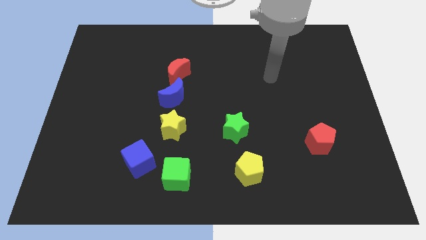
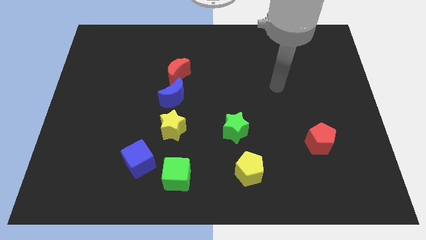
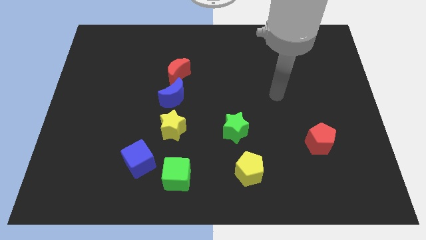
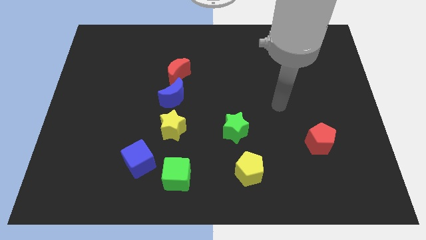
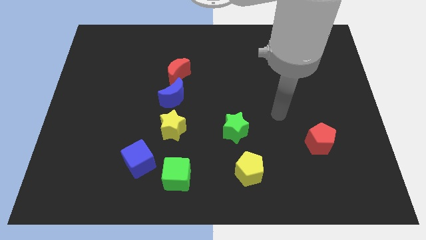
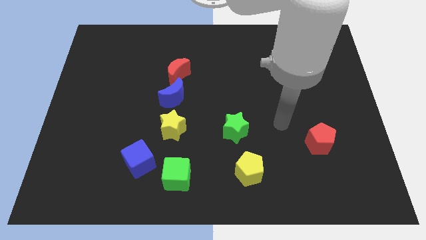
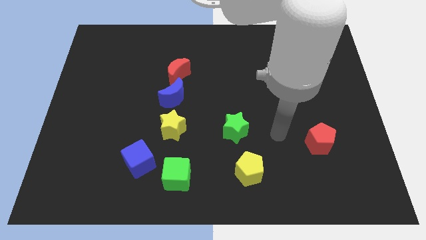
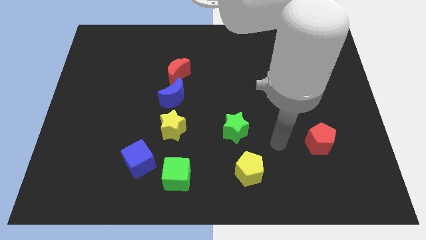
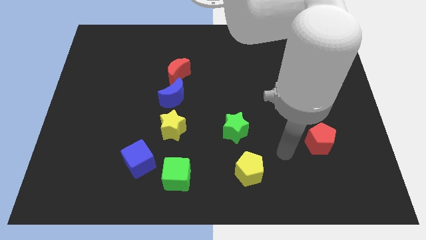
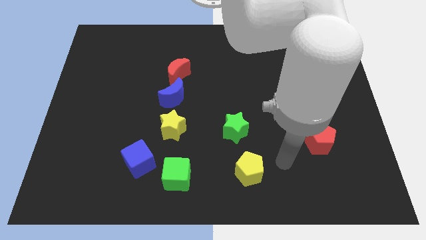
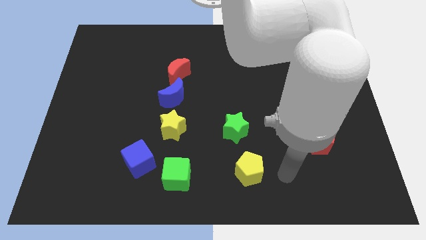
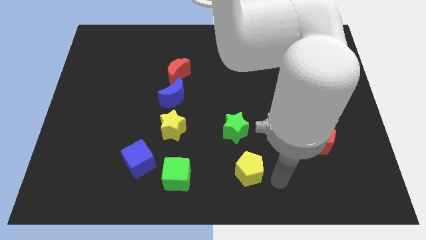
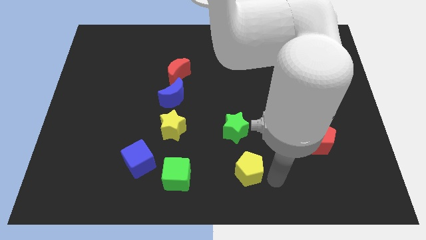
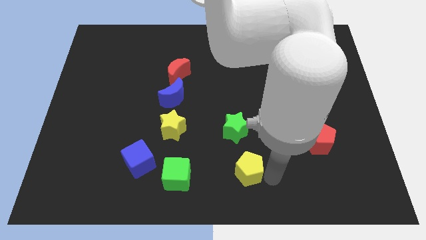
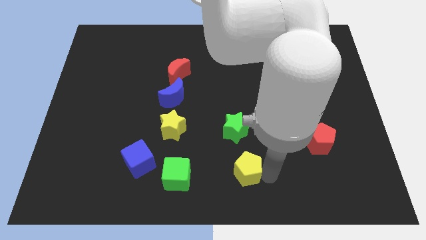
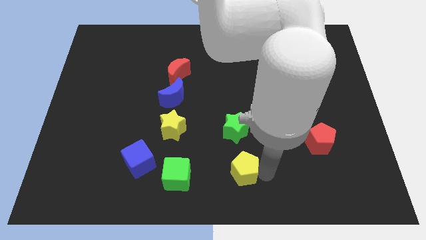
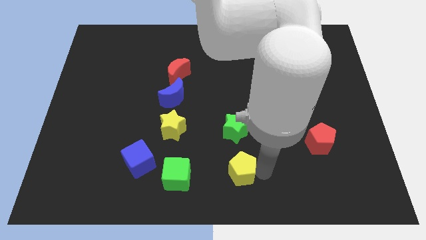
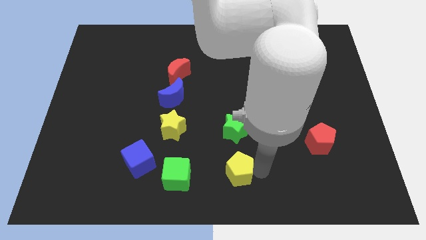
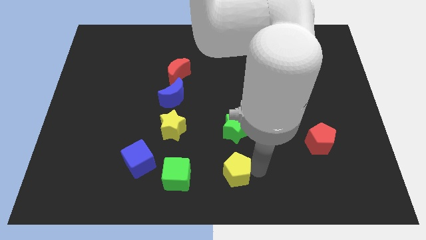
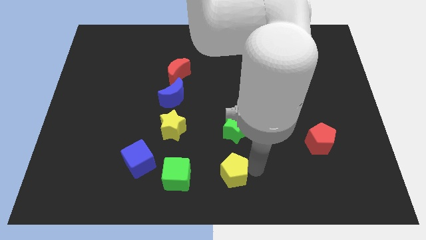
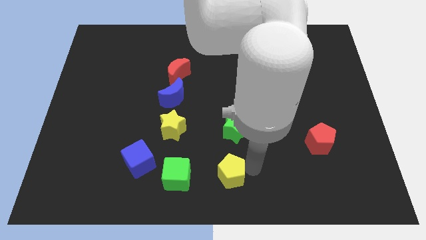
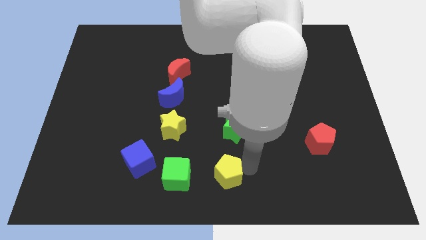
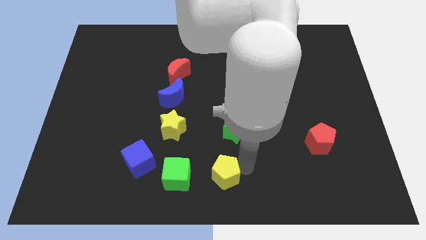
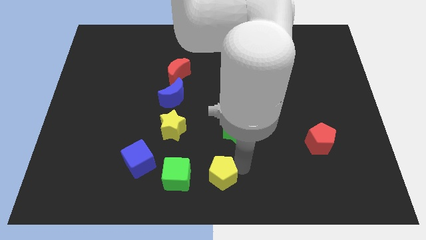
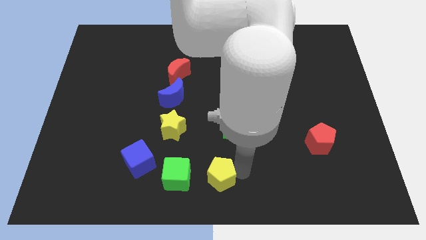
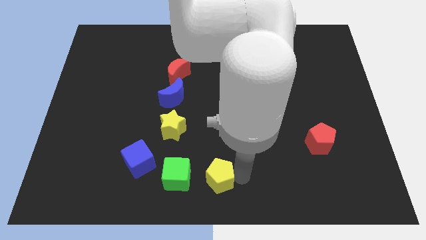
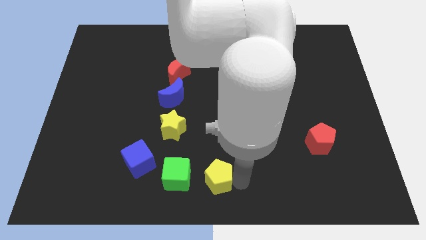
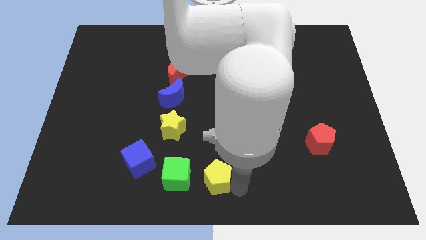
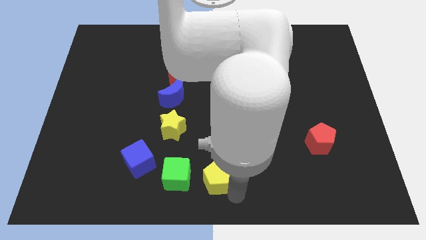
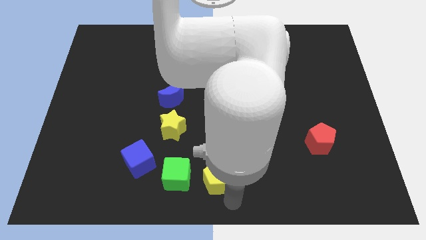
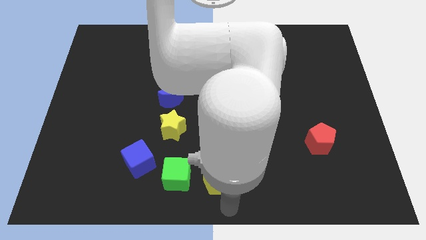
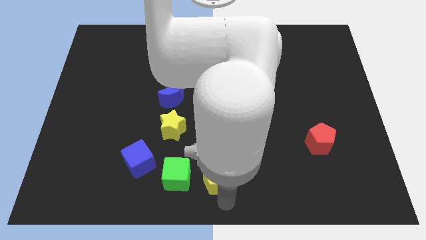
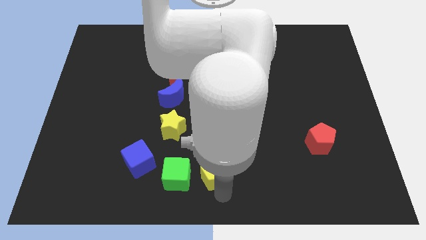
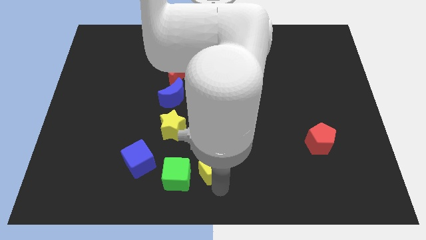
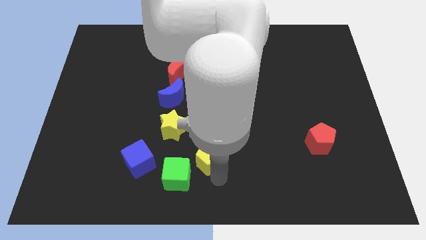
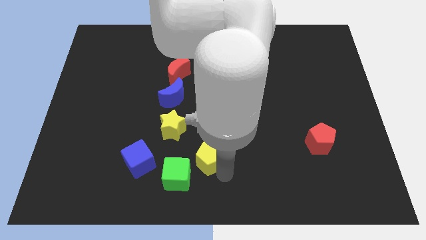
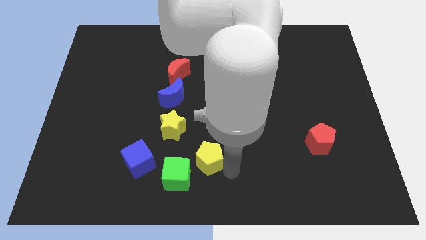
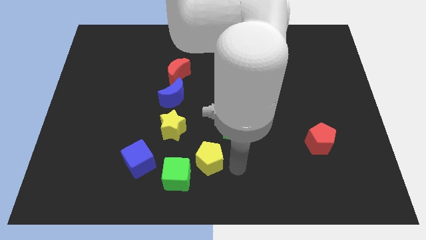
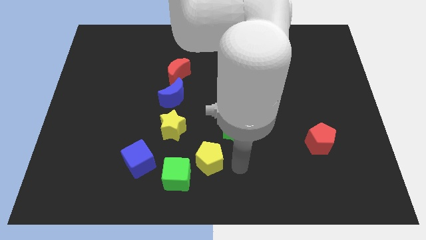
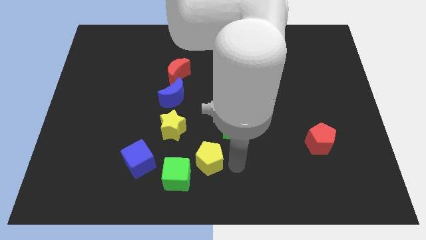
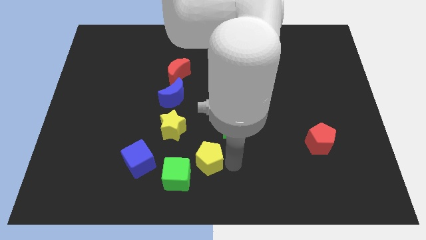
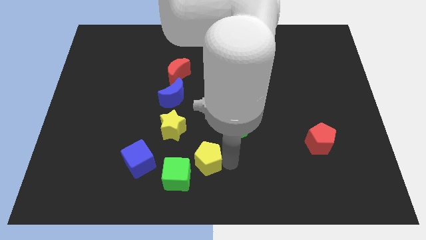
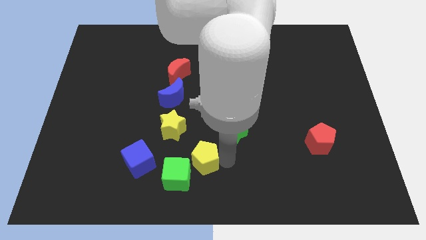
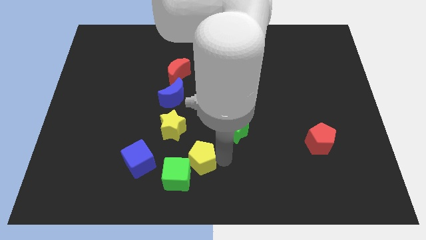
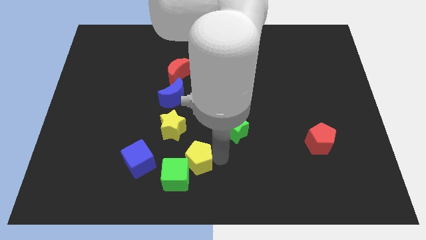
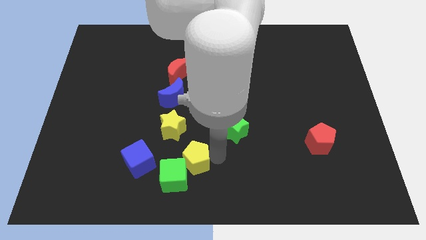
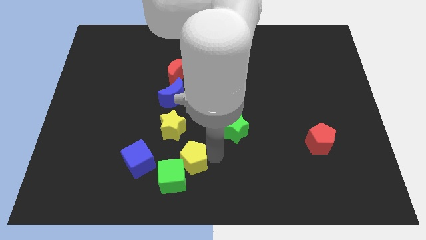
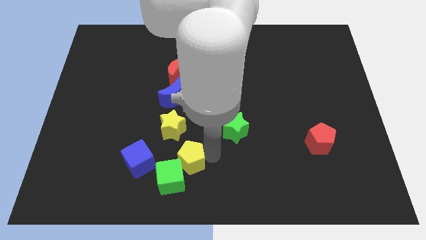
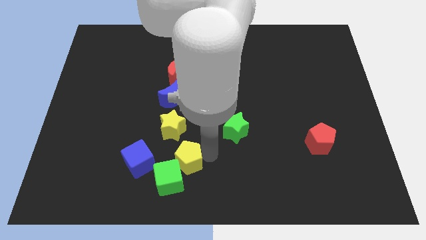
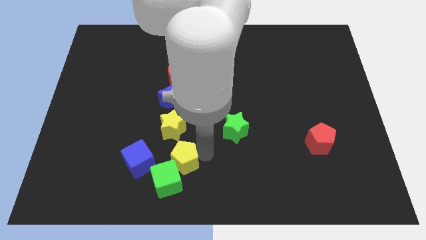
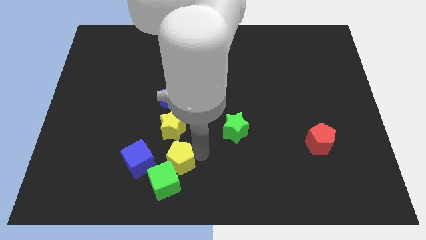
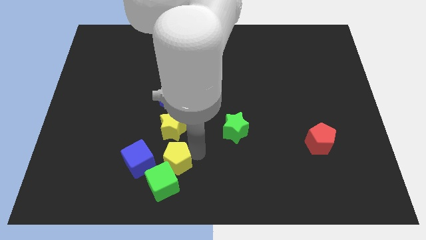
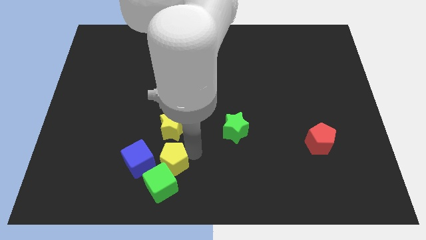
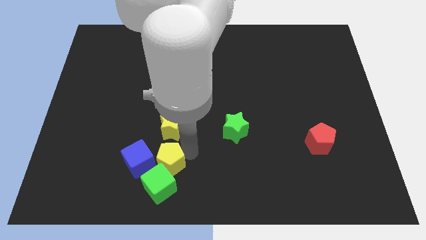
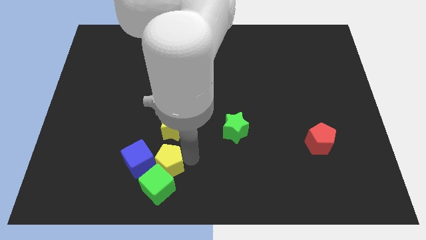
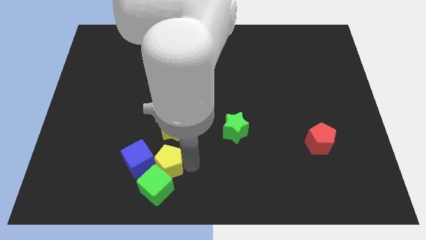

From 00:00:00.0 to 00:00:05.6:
move the yellow pentagon towards the blue cube

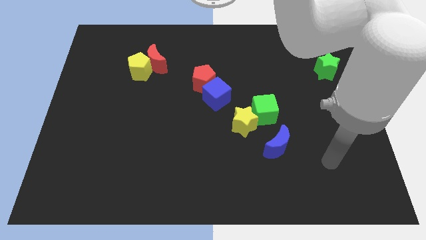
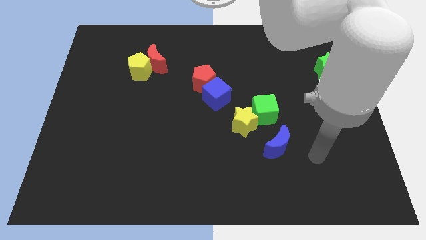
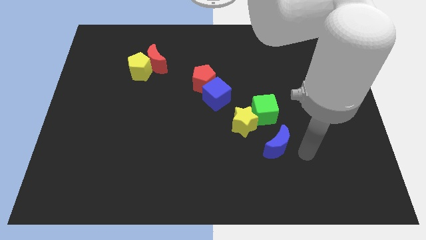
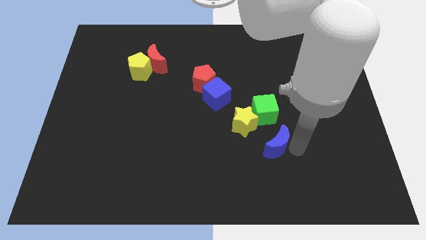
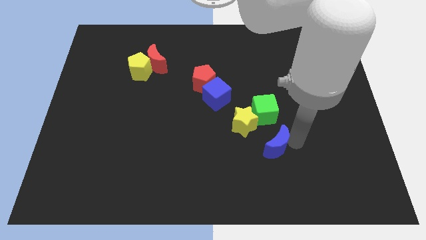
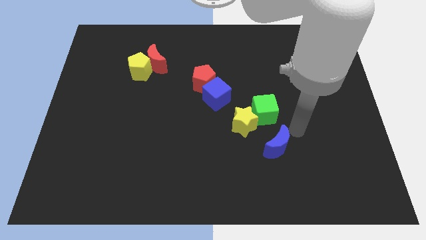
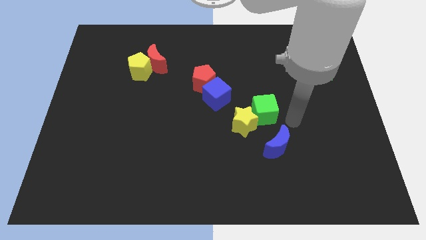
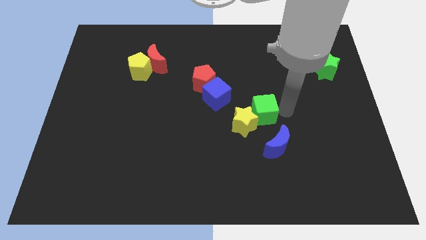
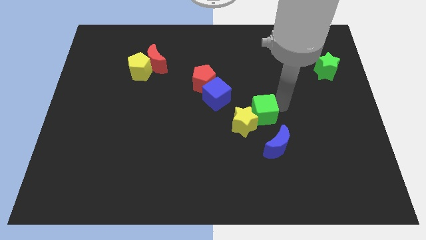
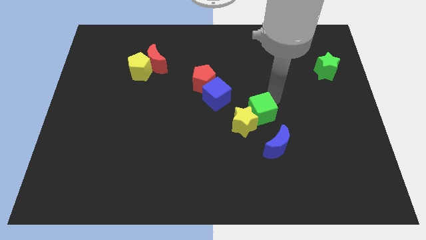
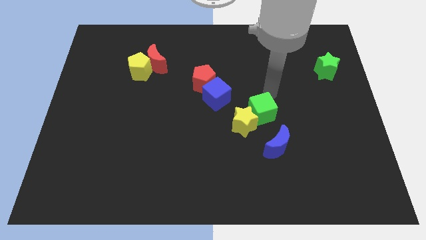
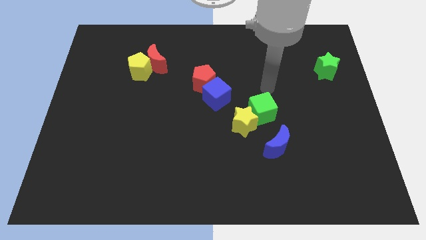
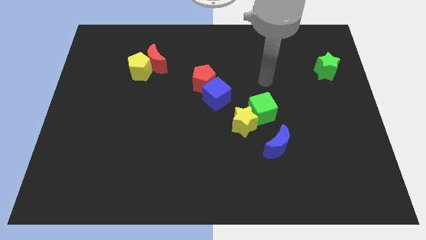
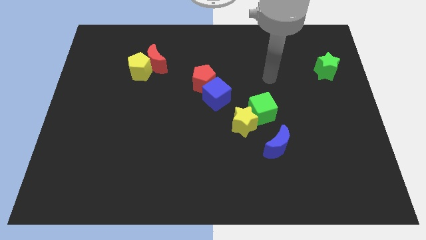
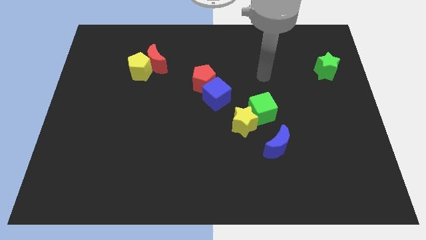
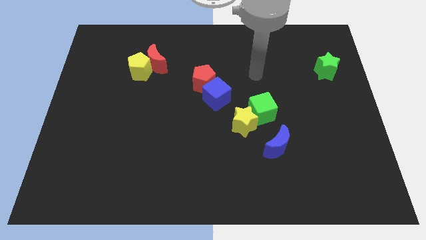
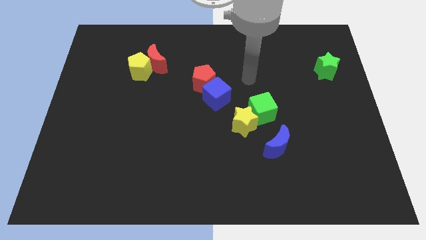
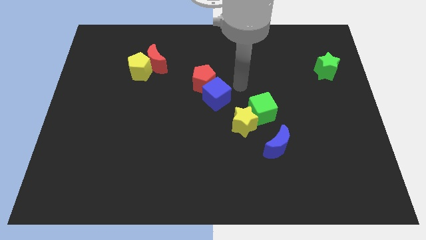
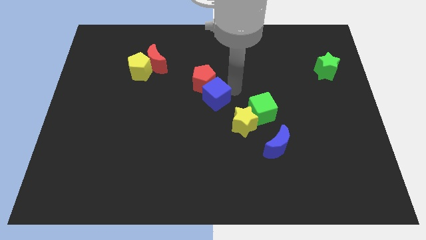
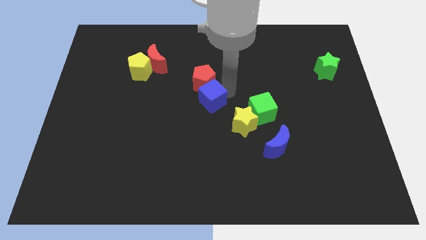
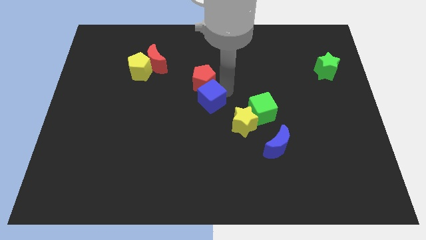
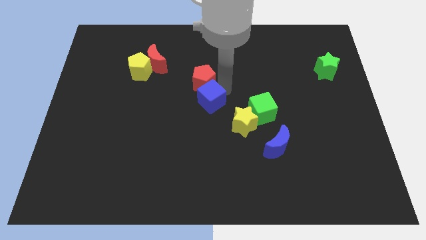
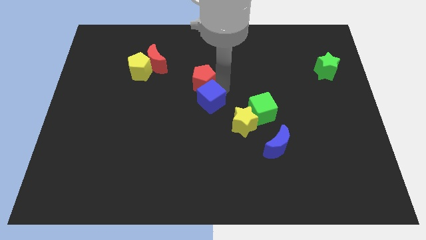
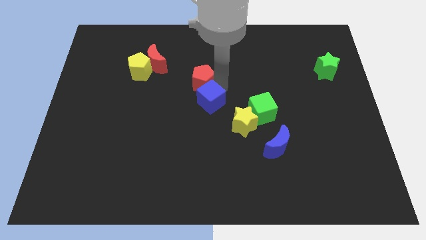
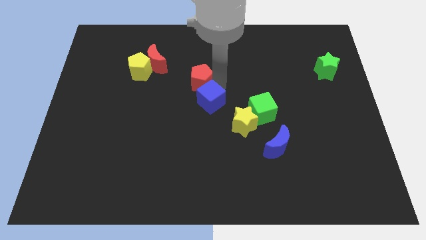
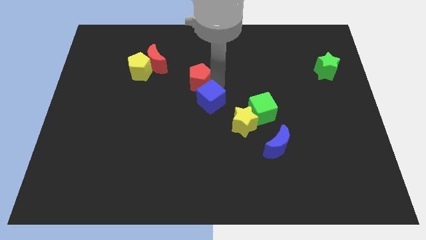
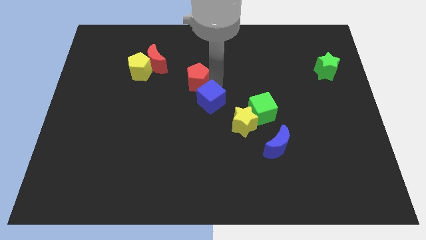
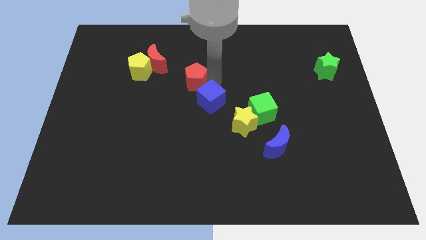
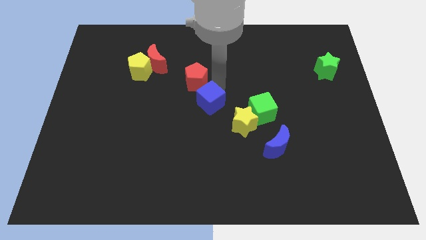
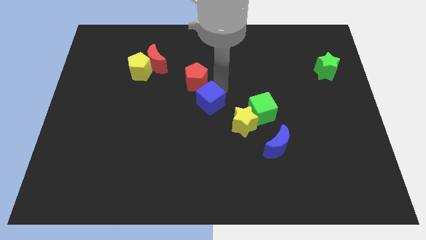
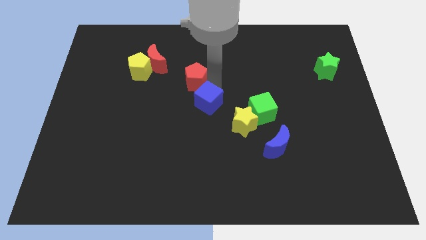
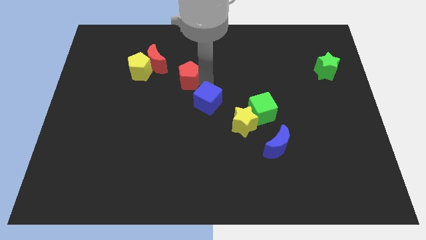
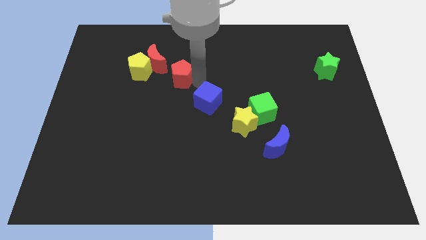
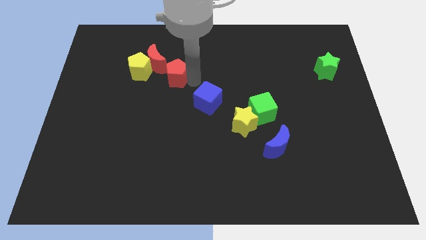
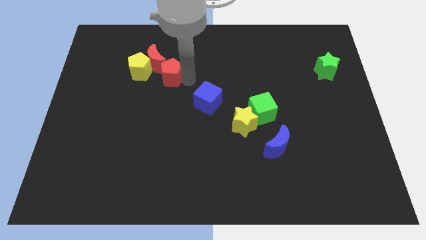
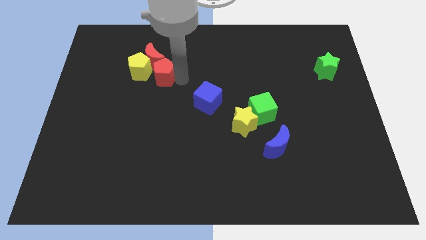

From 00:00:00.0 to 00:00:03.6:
slide the red pentagon close to the red moon
